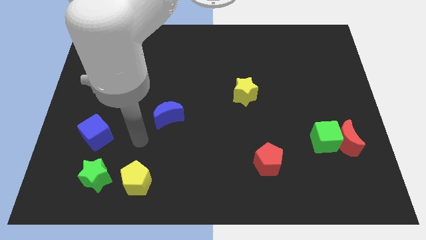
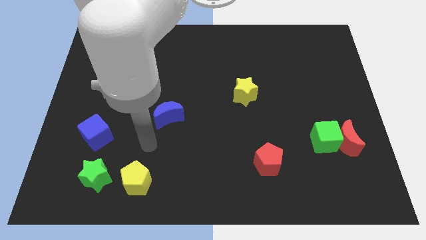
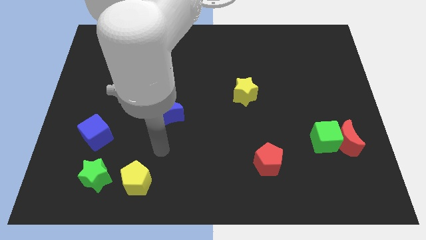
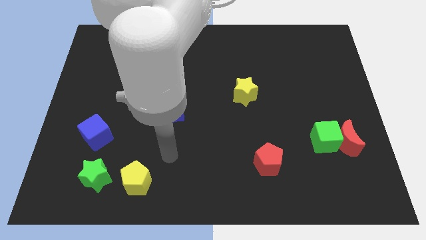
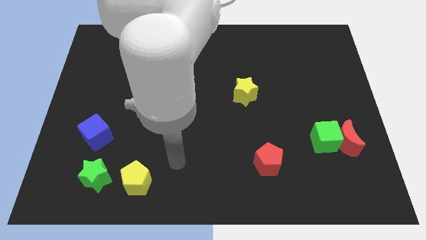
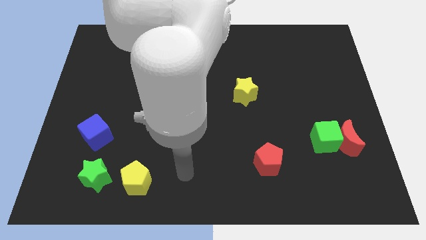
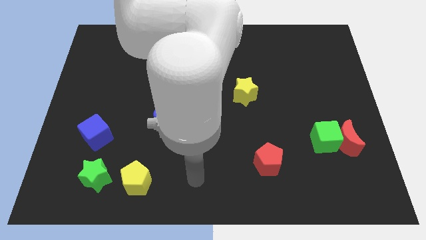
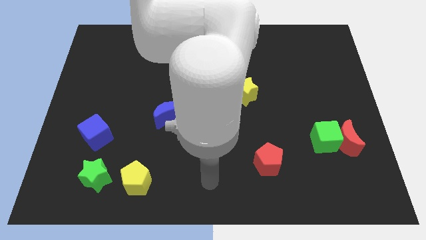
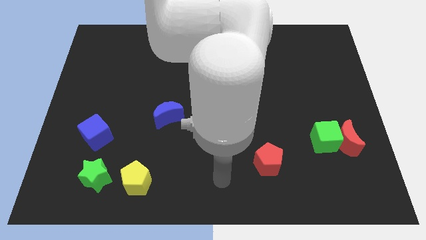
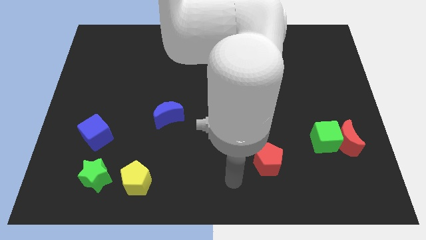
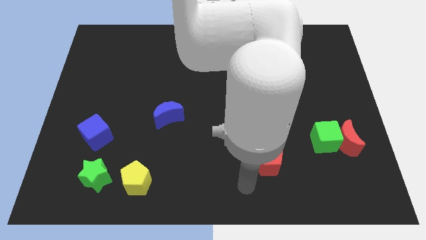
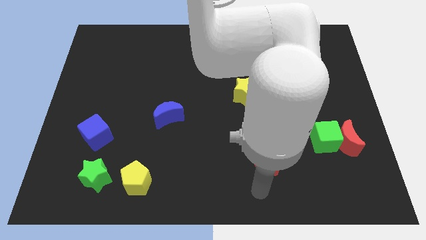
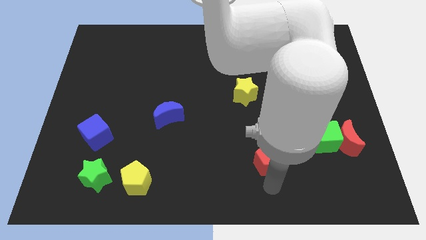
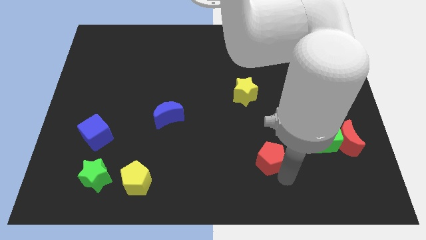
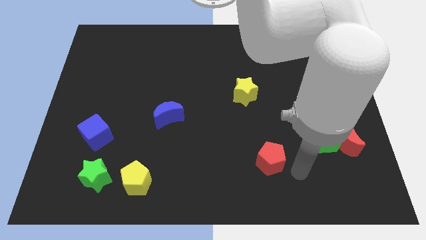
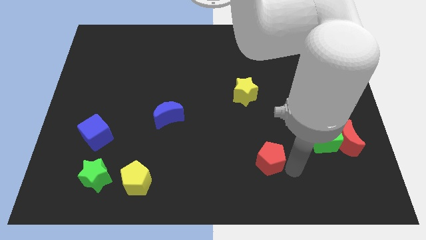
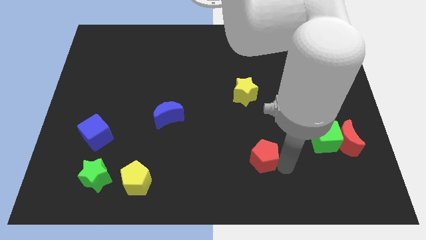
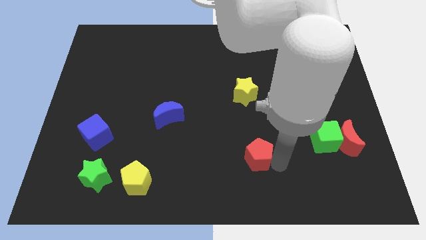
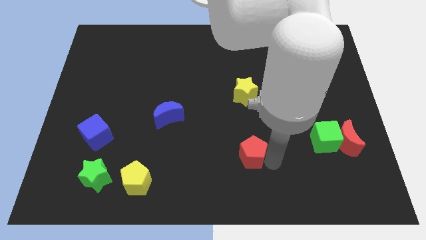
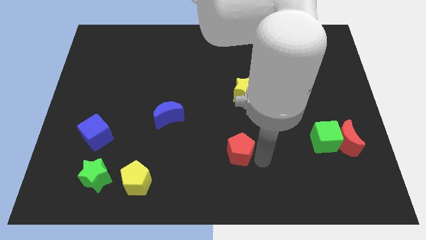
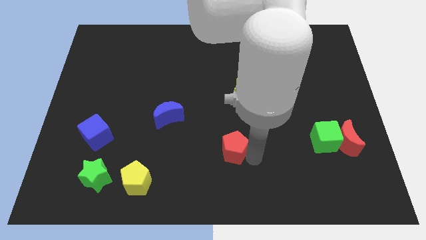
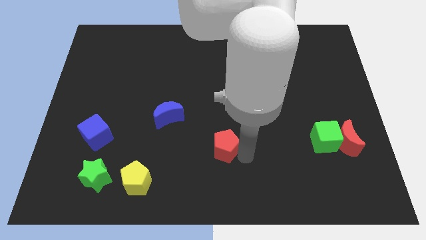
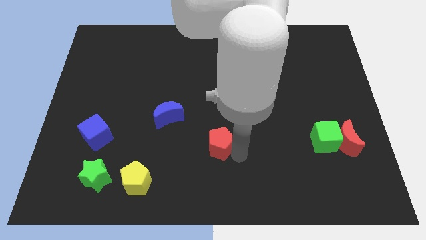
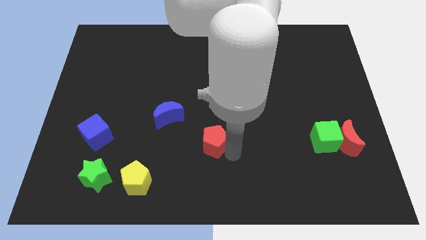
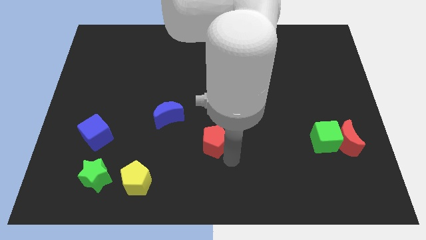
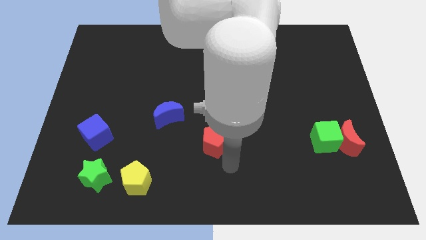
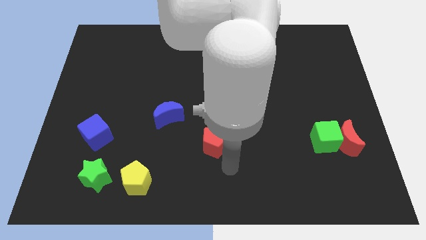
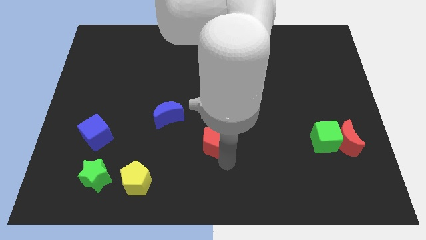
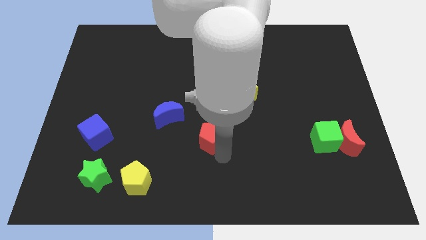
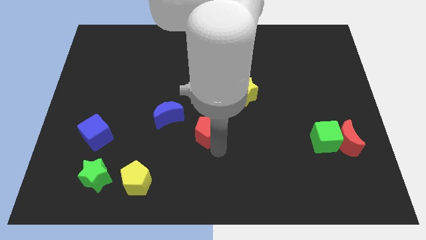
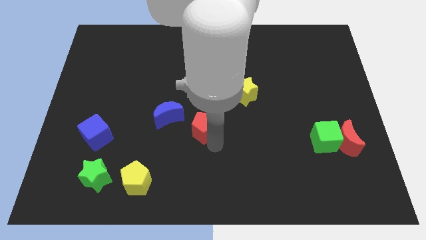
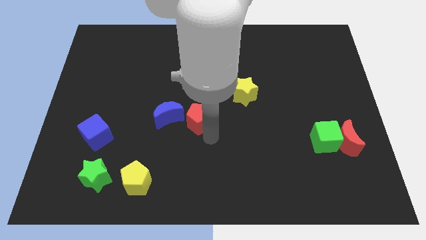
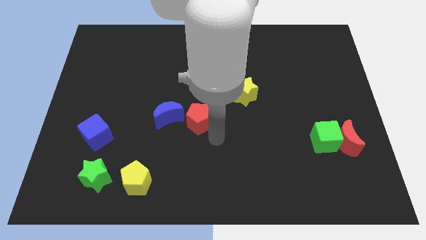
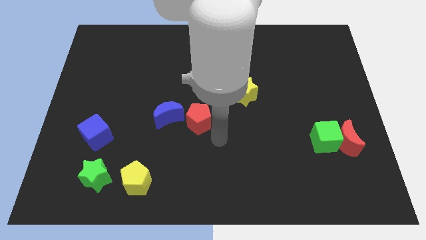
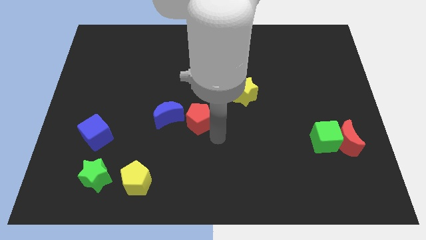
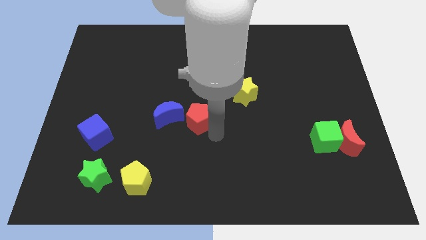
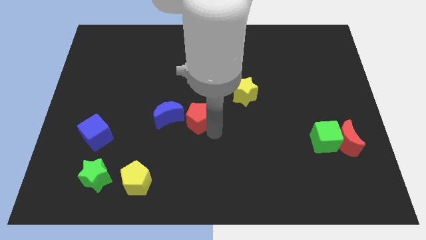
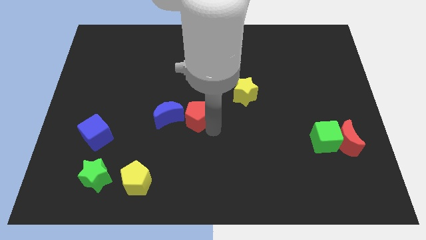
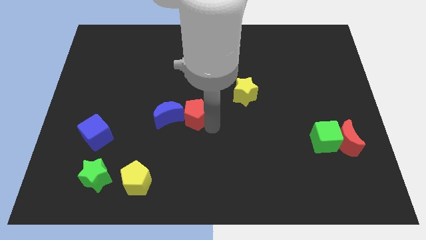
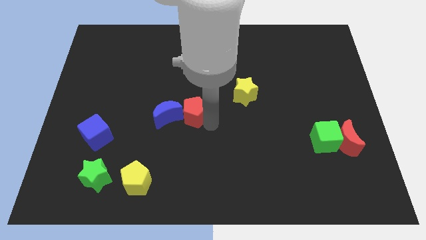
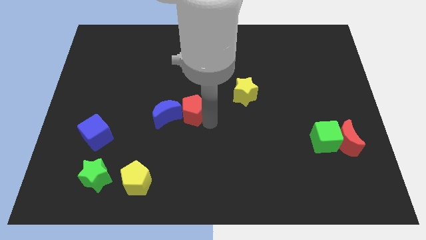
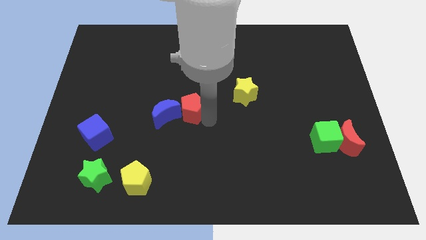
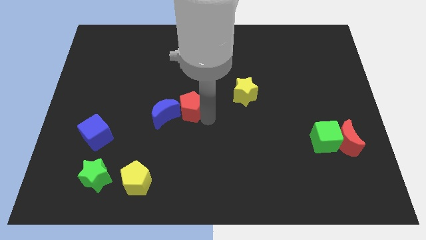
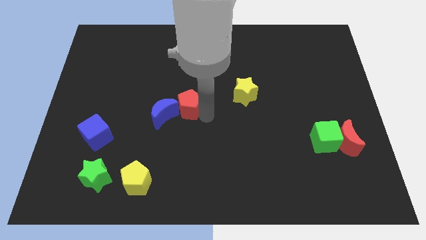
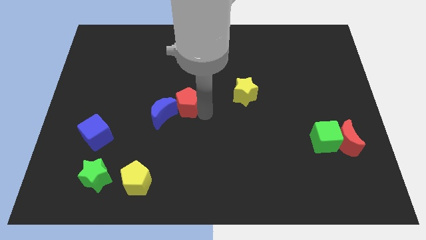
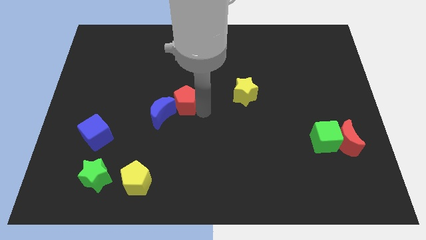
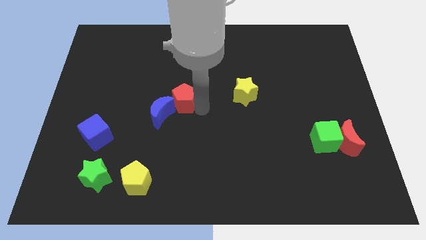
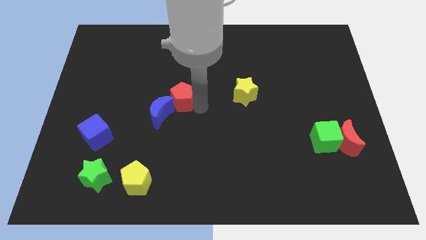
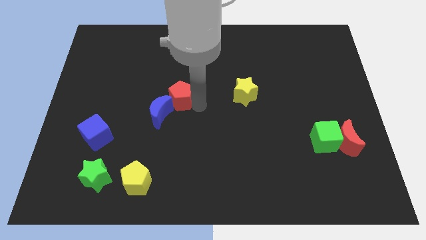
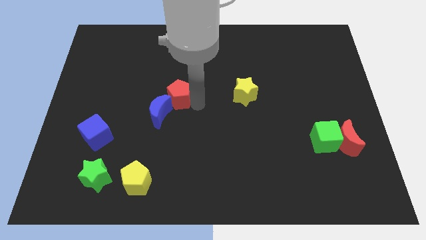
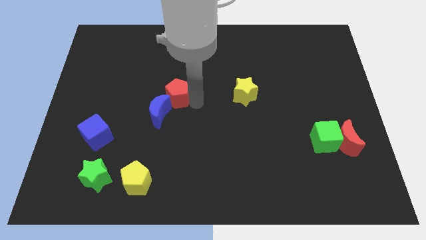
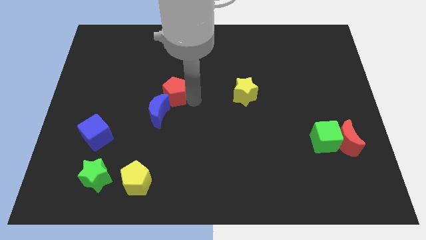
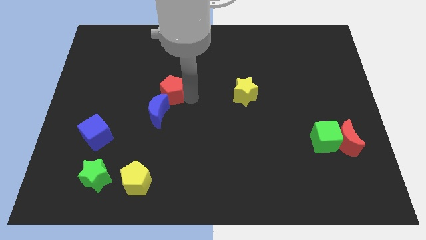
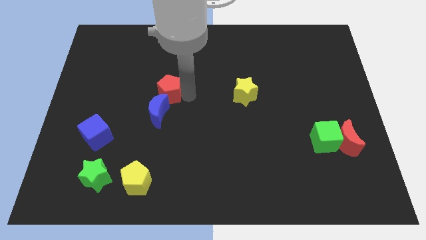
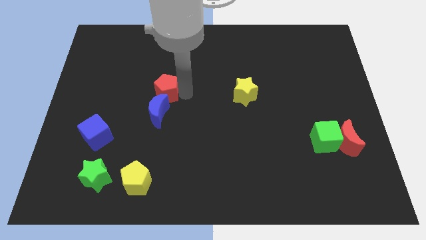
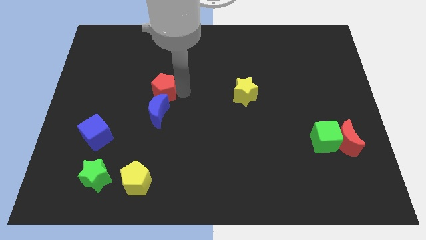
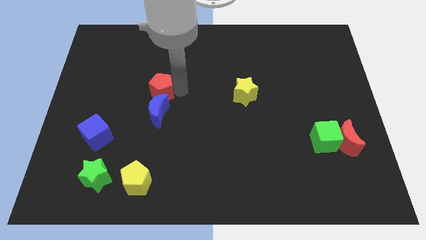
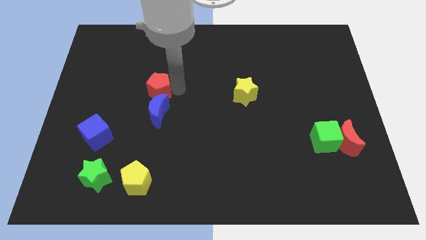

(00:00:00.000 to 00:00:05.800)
slide the red pentagon diagonally up and to the left of the blue moon

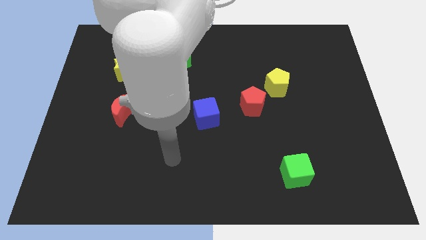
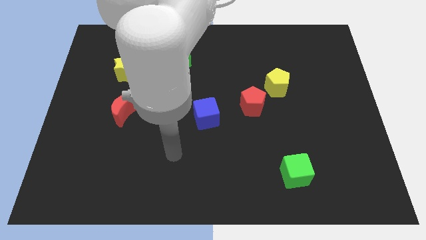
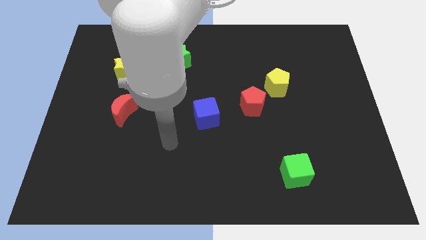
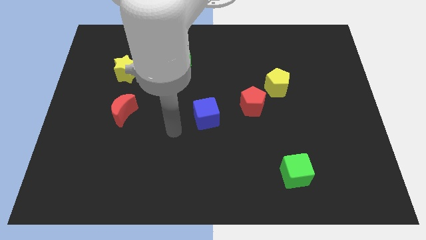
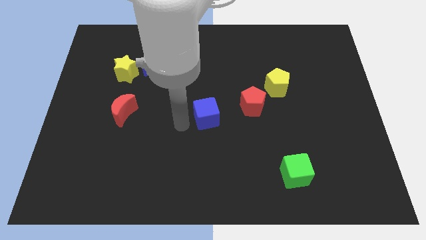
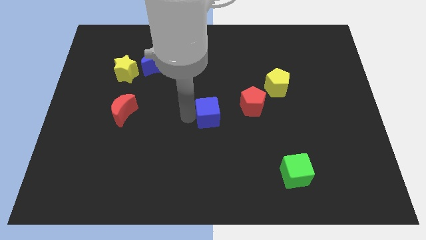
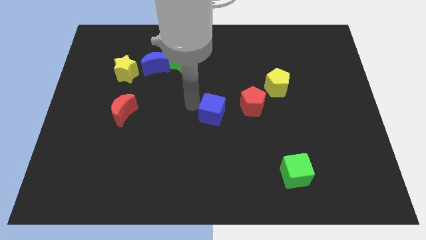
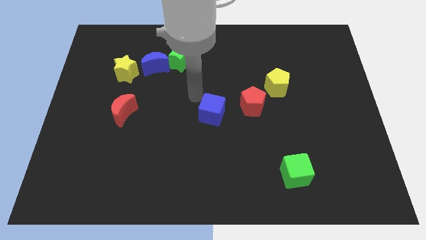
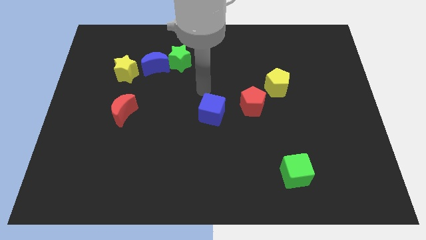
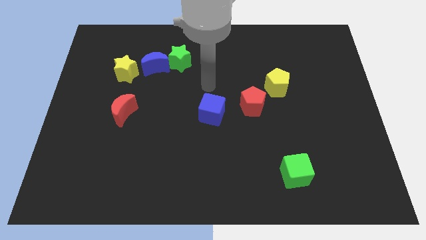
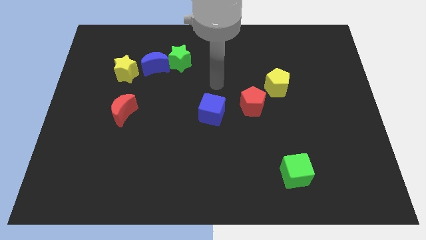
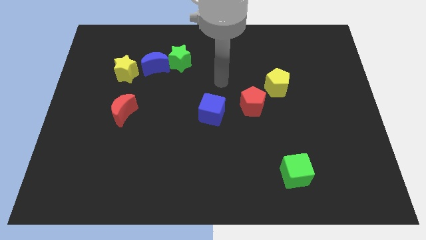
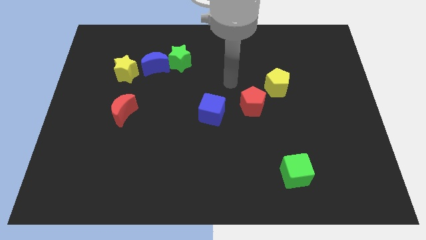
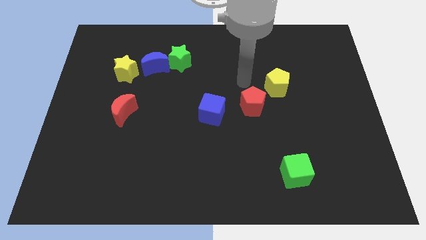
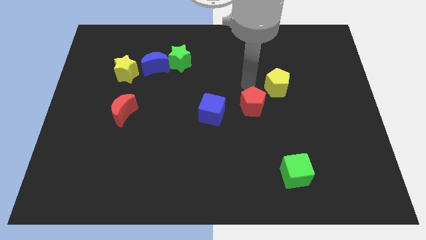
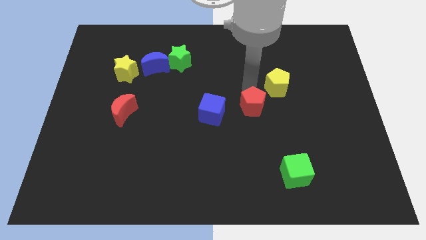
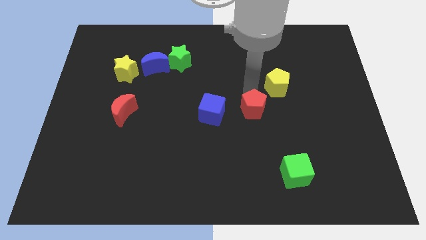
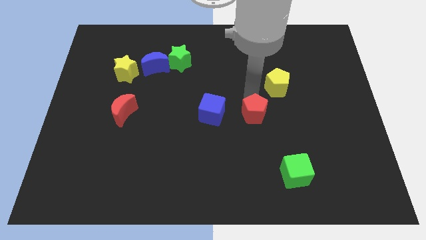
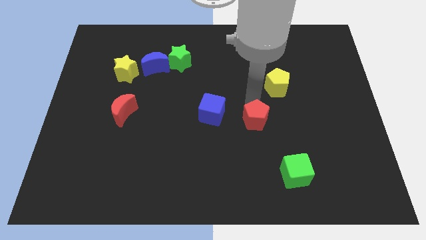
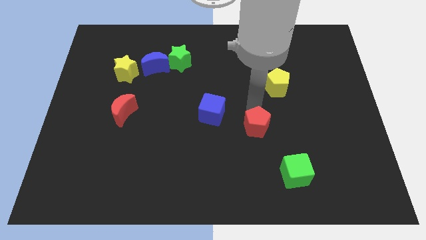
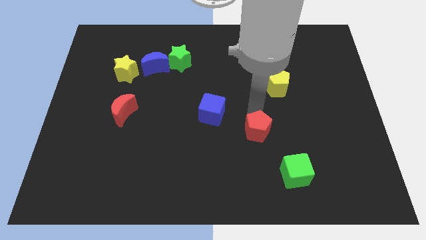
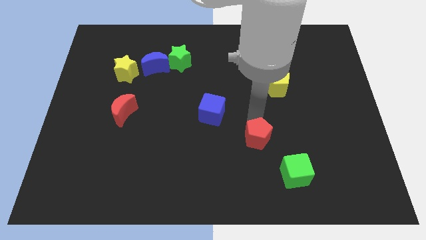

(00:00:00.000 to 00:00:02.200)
put the red pentagon to the top left of the green cube
